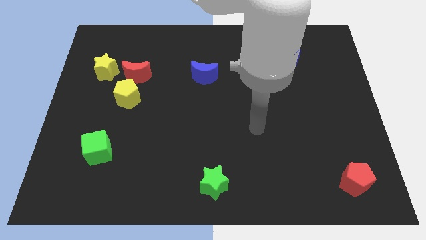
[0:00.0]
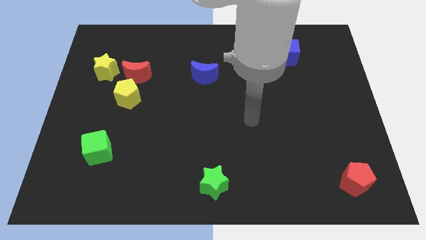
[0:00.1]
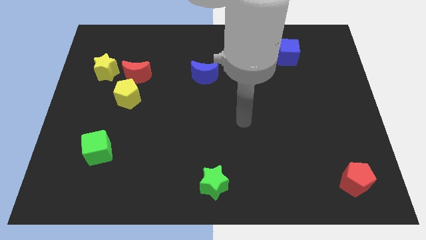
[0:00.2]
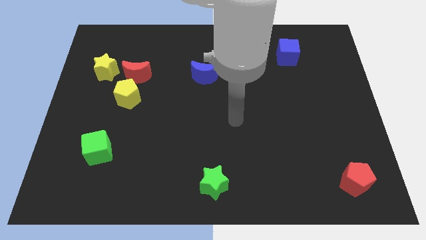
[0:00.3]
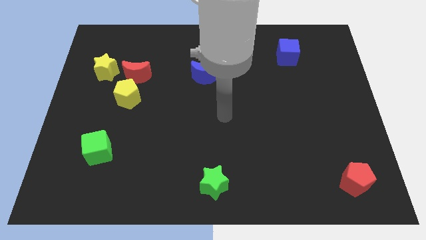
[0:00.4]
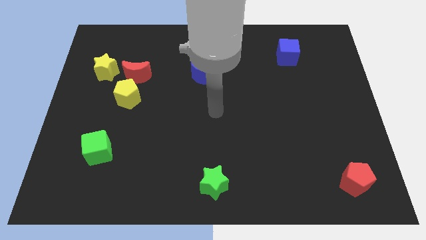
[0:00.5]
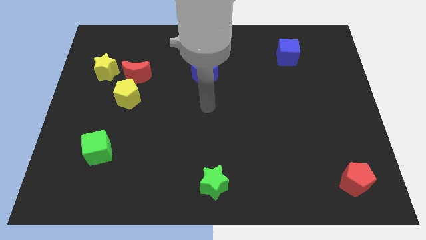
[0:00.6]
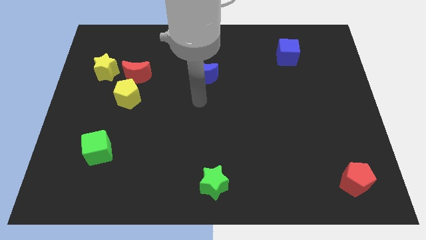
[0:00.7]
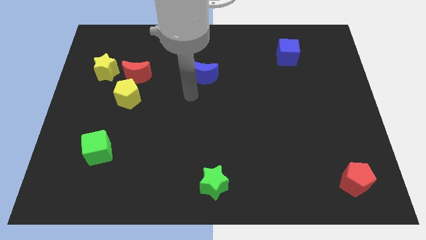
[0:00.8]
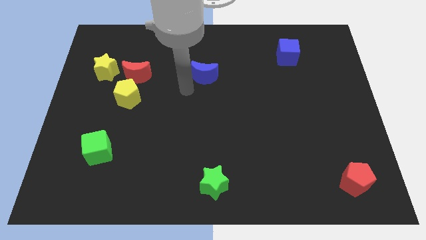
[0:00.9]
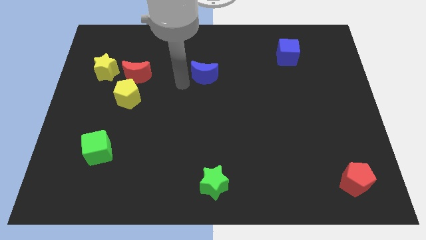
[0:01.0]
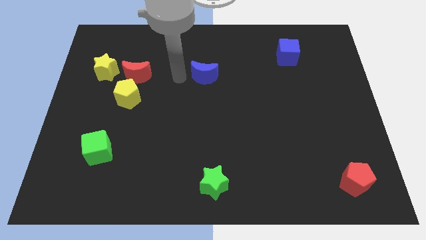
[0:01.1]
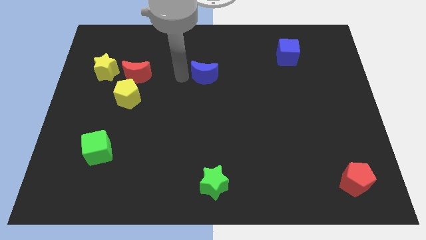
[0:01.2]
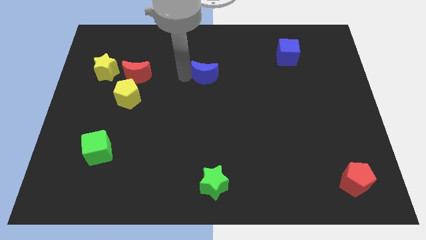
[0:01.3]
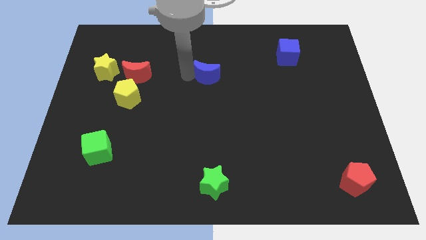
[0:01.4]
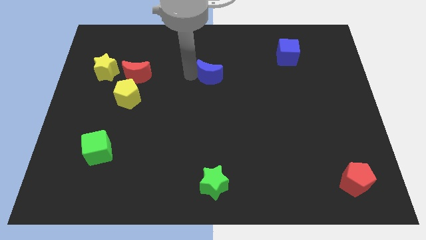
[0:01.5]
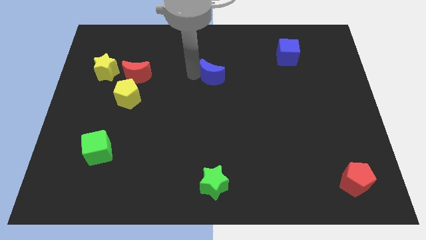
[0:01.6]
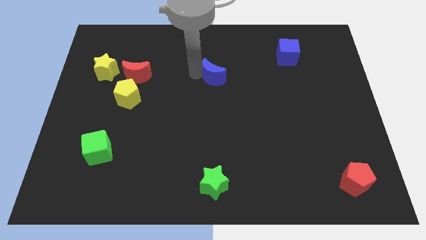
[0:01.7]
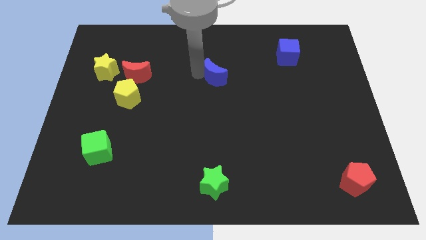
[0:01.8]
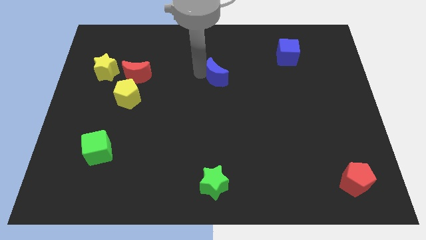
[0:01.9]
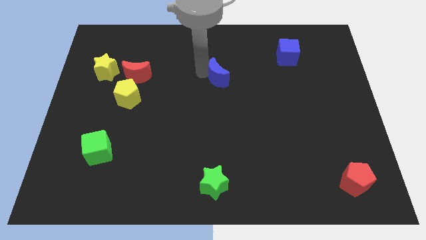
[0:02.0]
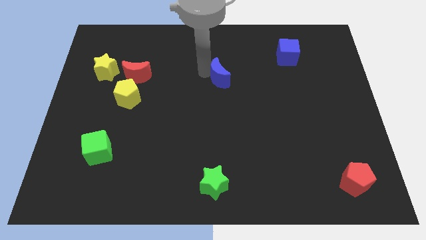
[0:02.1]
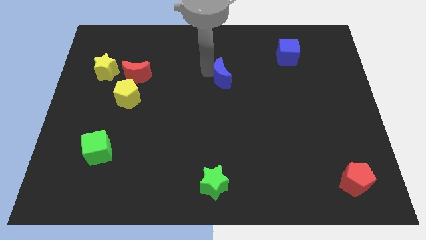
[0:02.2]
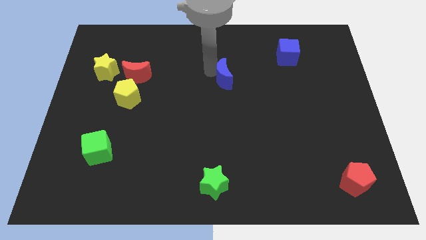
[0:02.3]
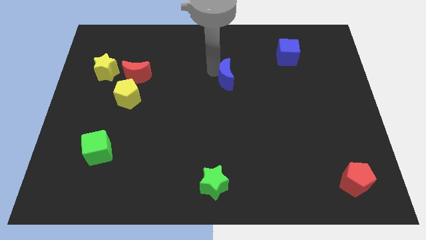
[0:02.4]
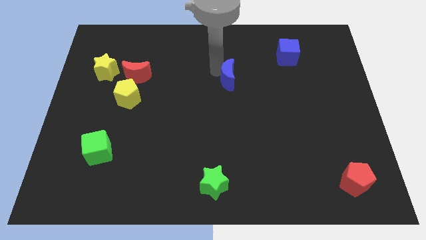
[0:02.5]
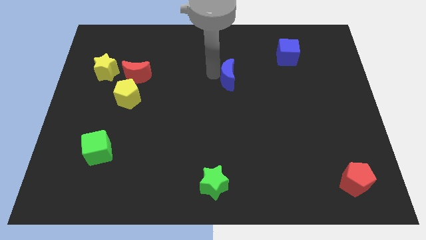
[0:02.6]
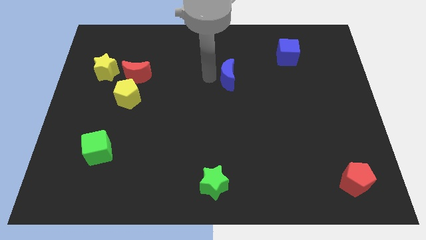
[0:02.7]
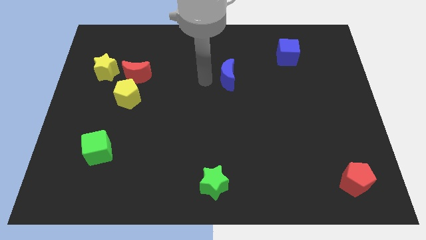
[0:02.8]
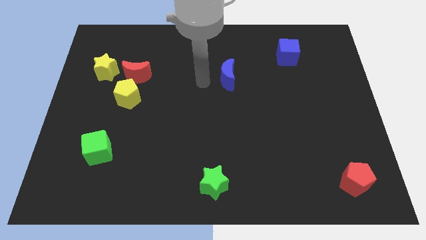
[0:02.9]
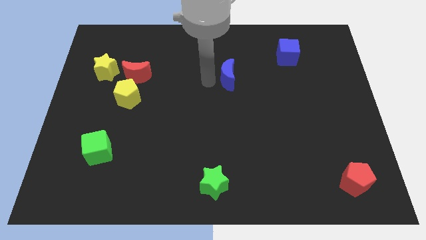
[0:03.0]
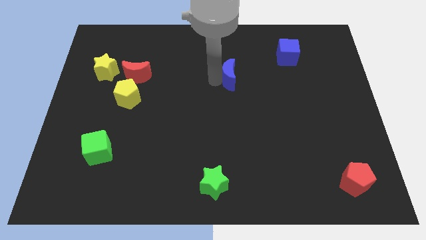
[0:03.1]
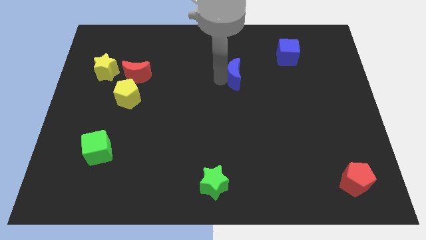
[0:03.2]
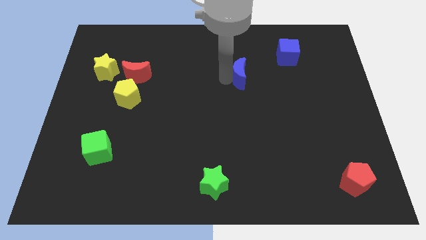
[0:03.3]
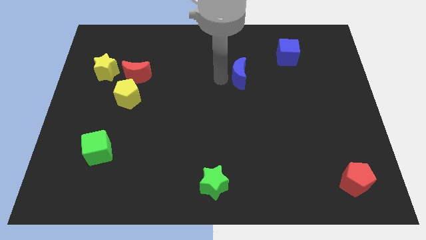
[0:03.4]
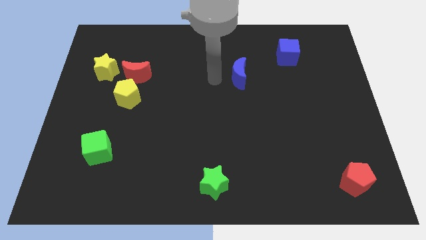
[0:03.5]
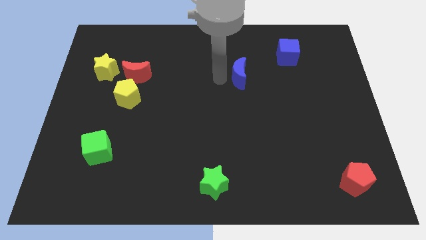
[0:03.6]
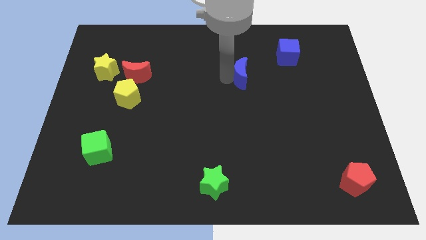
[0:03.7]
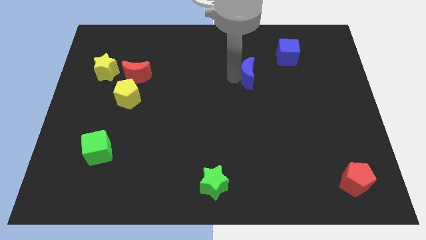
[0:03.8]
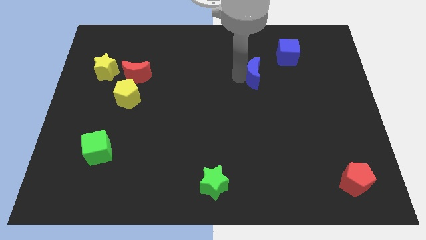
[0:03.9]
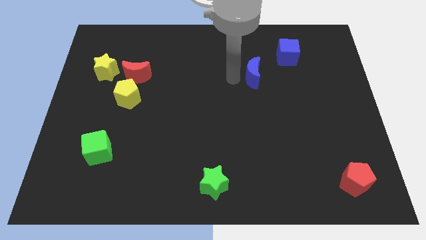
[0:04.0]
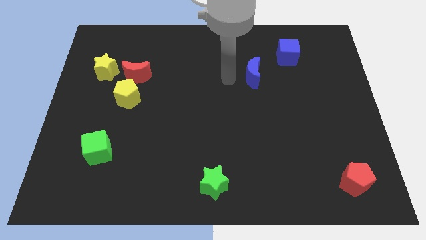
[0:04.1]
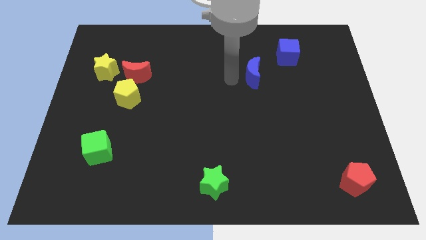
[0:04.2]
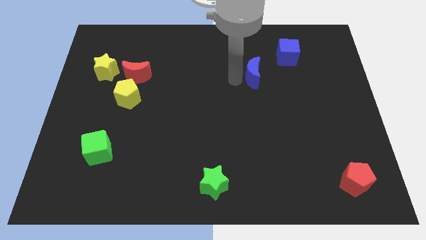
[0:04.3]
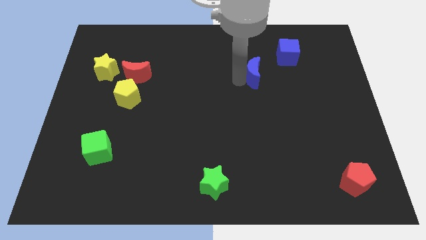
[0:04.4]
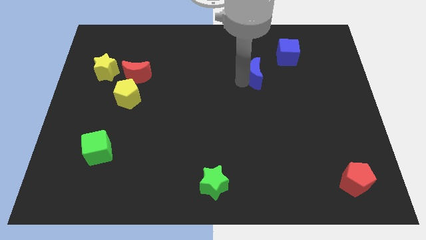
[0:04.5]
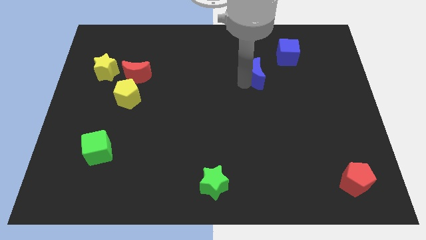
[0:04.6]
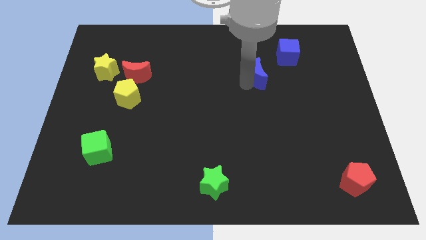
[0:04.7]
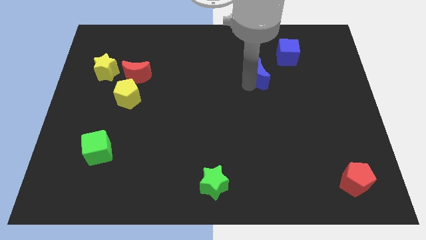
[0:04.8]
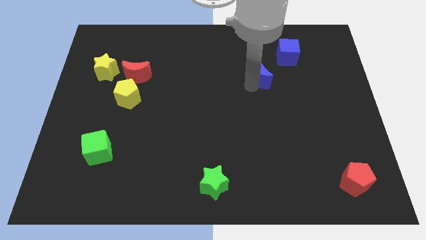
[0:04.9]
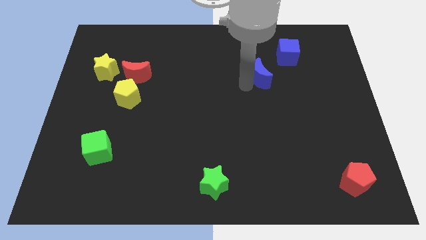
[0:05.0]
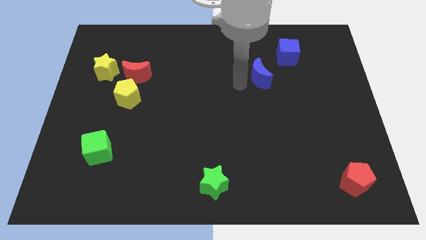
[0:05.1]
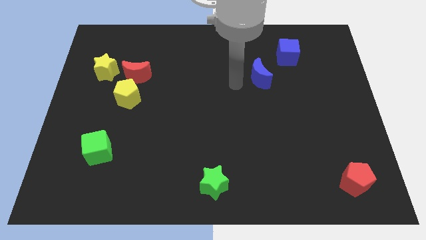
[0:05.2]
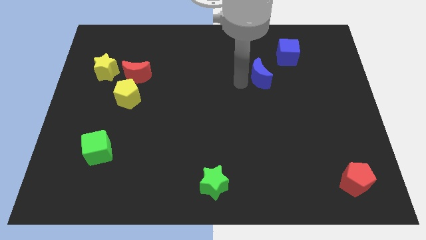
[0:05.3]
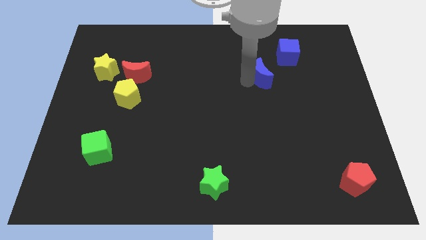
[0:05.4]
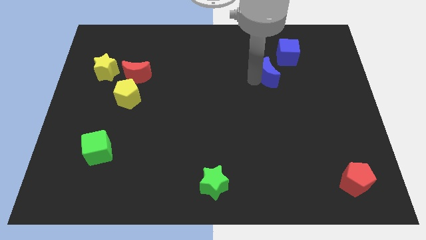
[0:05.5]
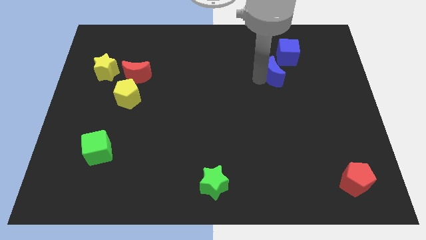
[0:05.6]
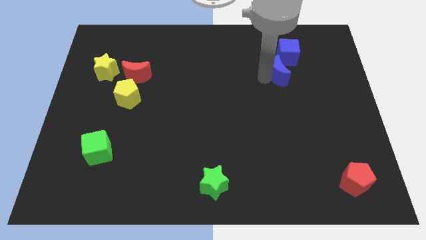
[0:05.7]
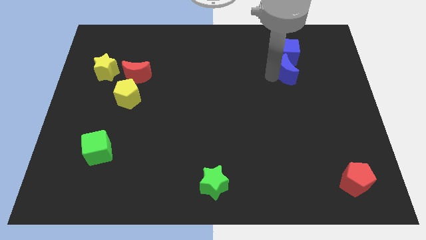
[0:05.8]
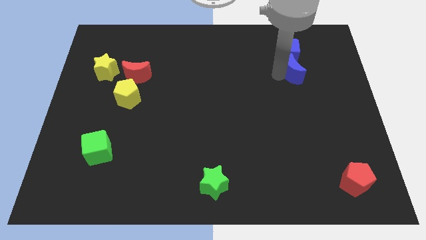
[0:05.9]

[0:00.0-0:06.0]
slide the blue moon diagonally down and to the right of the blue cube

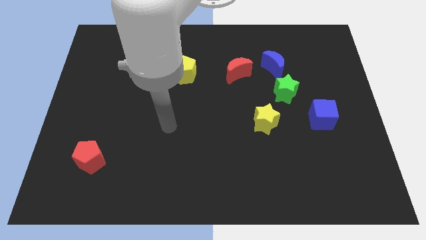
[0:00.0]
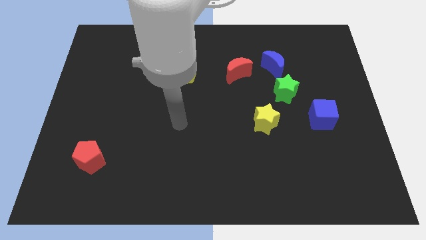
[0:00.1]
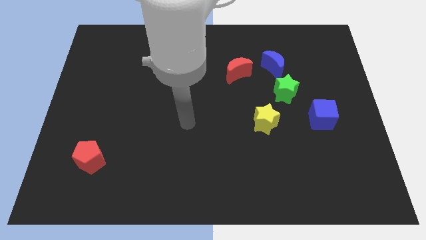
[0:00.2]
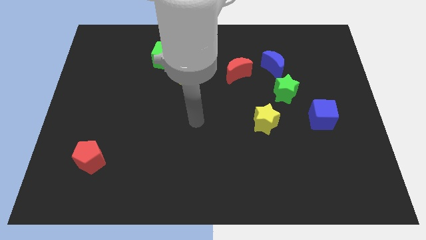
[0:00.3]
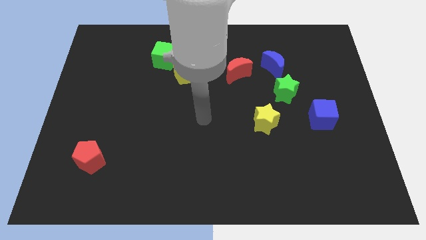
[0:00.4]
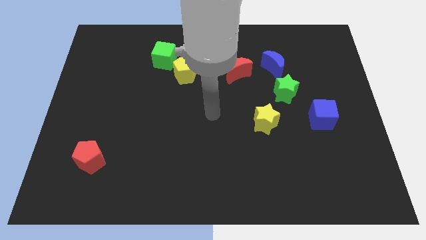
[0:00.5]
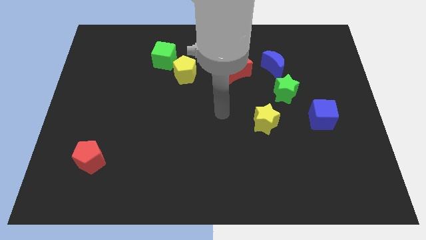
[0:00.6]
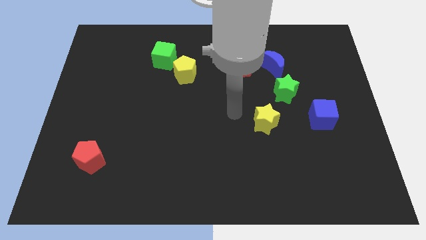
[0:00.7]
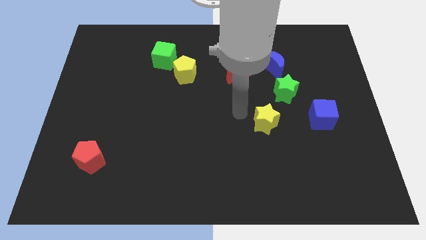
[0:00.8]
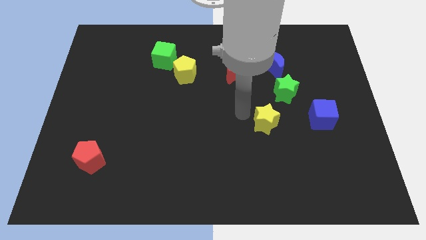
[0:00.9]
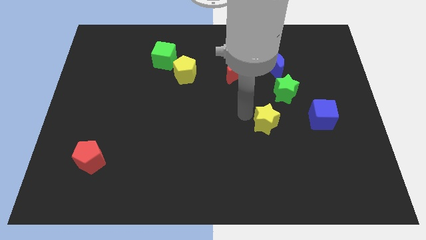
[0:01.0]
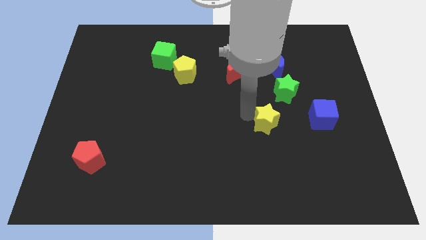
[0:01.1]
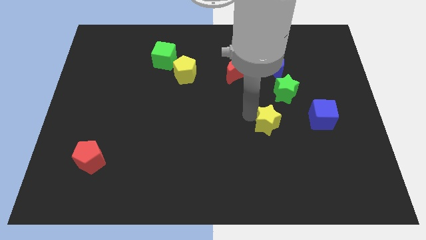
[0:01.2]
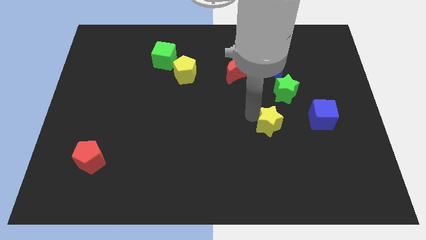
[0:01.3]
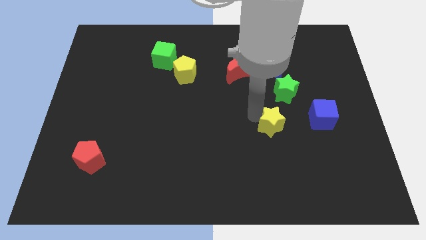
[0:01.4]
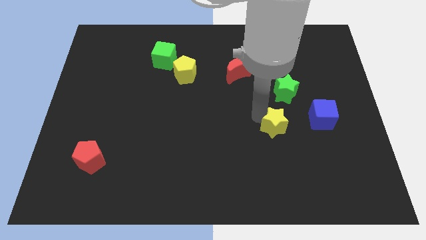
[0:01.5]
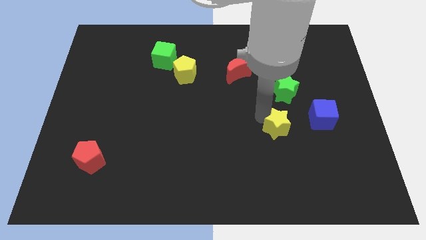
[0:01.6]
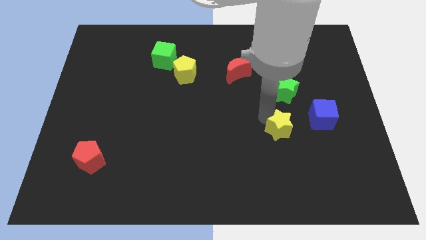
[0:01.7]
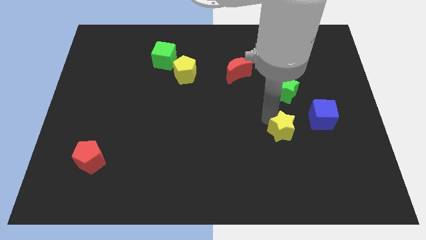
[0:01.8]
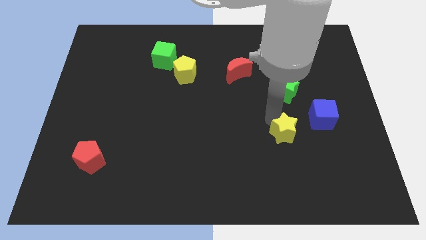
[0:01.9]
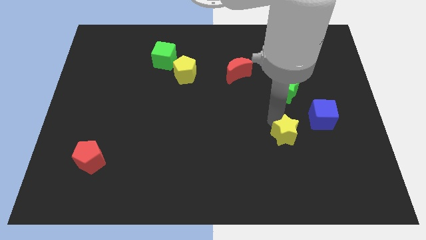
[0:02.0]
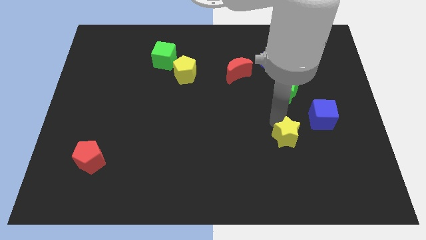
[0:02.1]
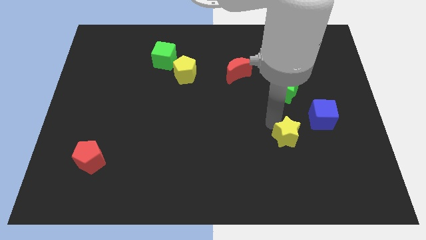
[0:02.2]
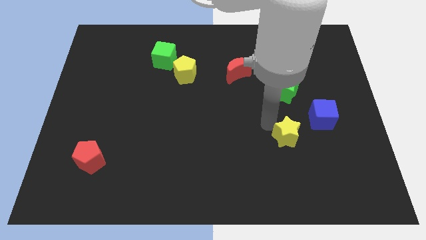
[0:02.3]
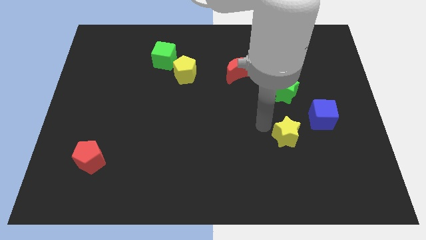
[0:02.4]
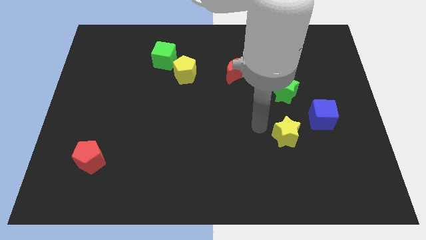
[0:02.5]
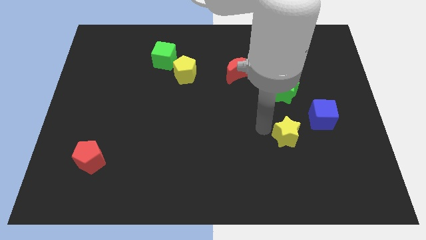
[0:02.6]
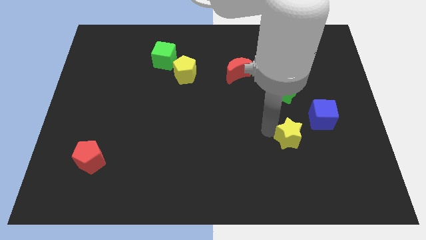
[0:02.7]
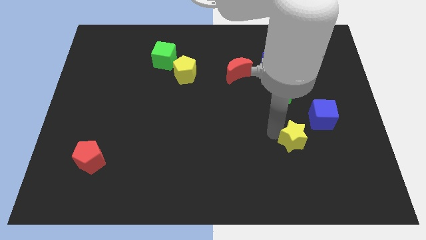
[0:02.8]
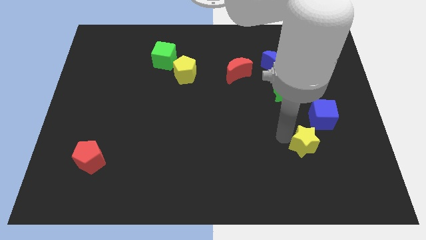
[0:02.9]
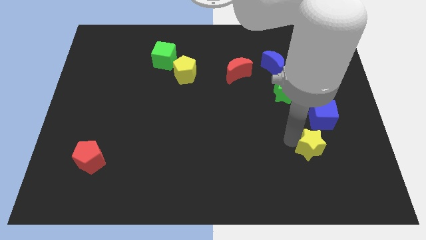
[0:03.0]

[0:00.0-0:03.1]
push the yellow star below the blue cube
